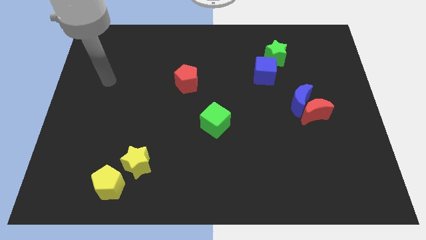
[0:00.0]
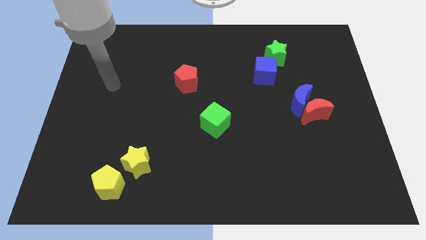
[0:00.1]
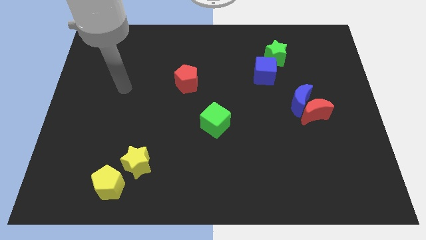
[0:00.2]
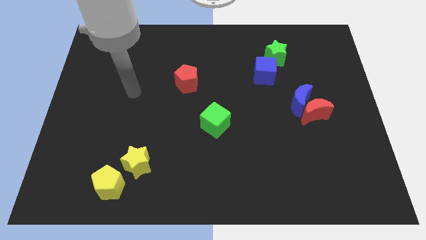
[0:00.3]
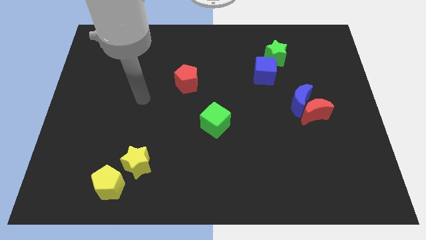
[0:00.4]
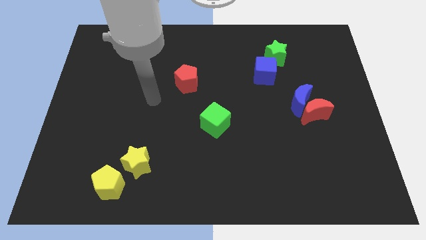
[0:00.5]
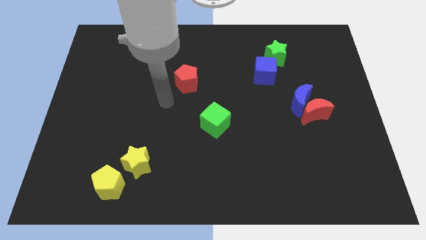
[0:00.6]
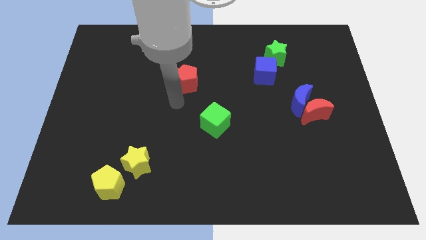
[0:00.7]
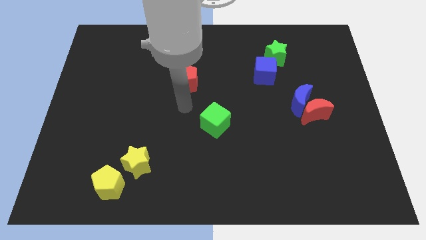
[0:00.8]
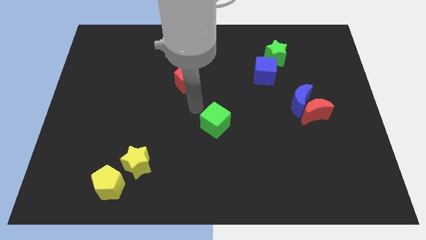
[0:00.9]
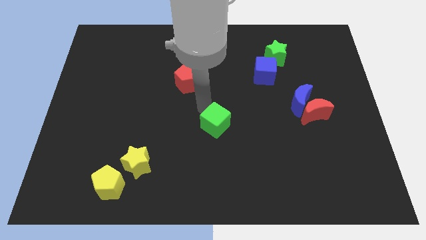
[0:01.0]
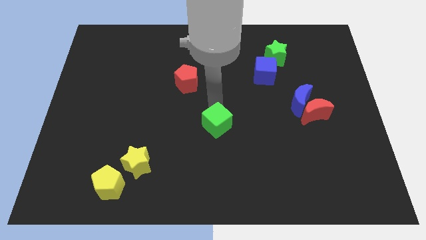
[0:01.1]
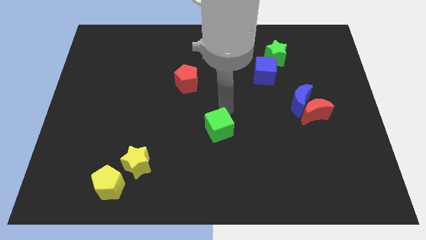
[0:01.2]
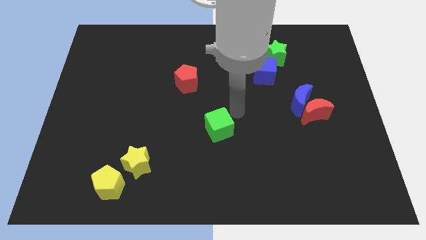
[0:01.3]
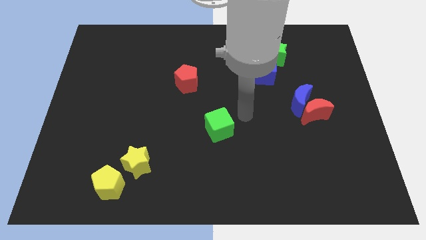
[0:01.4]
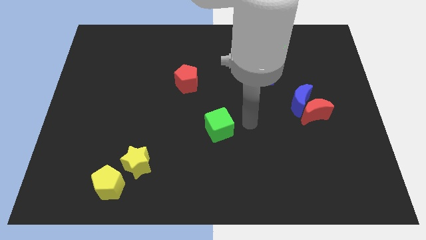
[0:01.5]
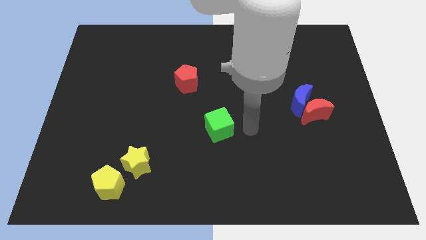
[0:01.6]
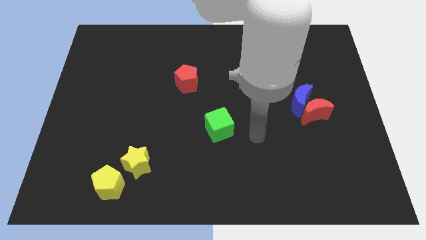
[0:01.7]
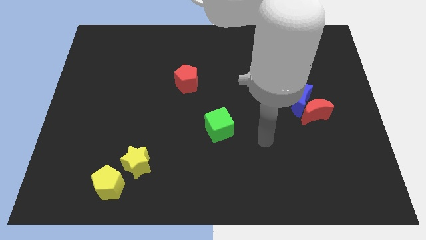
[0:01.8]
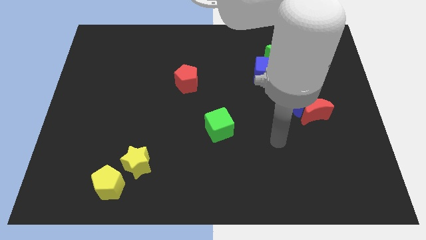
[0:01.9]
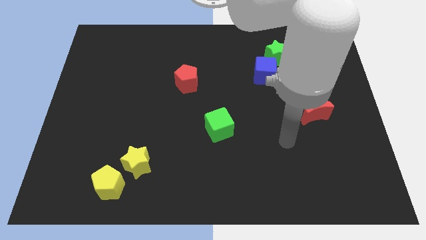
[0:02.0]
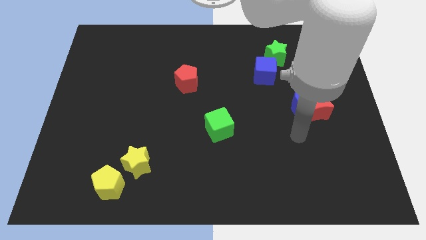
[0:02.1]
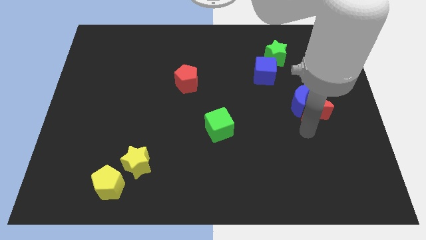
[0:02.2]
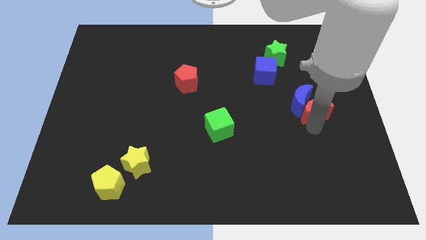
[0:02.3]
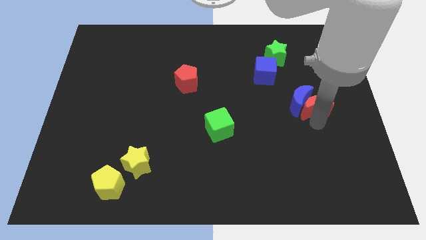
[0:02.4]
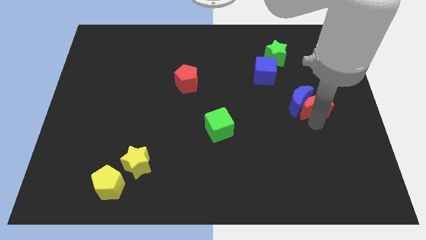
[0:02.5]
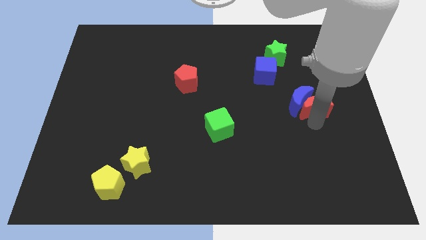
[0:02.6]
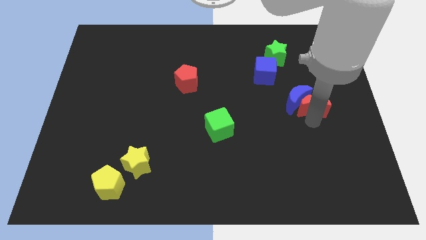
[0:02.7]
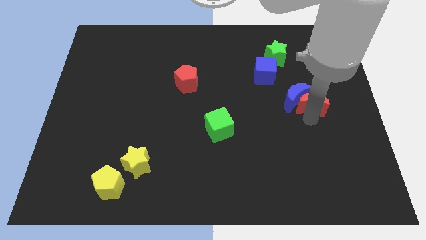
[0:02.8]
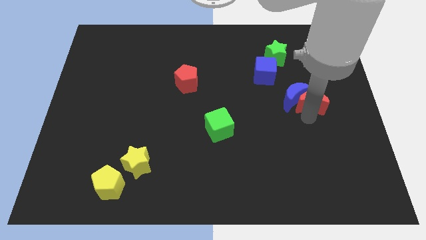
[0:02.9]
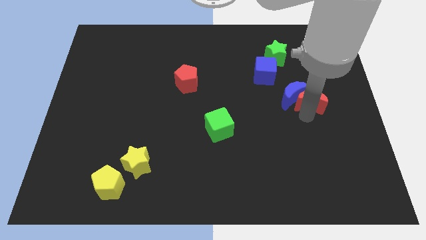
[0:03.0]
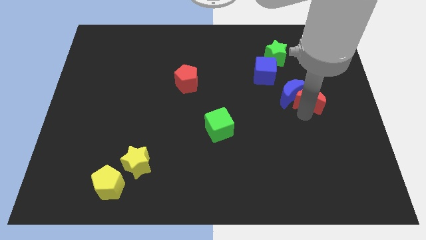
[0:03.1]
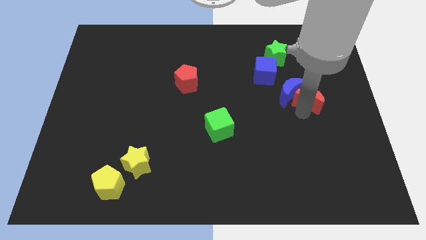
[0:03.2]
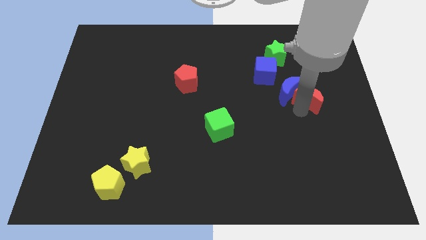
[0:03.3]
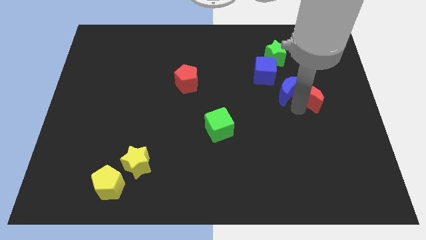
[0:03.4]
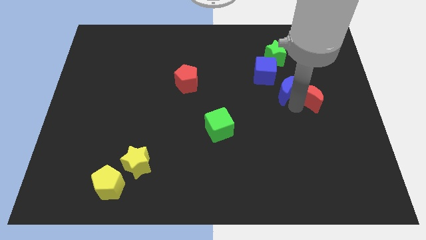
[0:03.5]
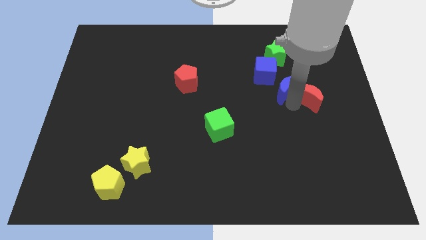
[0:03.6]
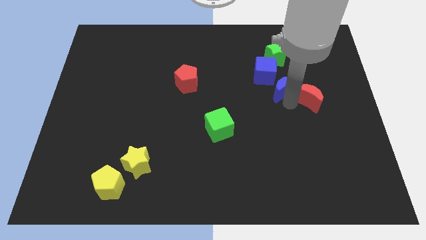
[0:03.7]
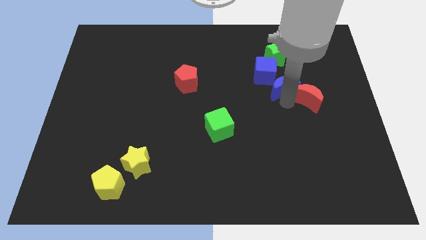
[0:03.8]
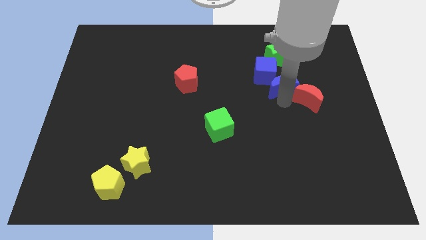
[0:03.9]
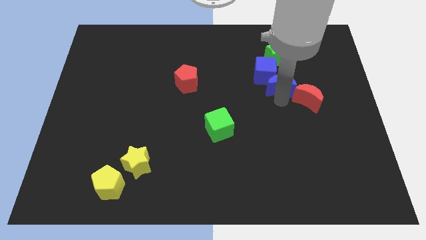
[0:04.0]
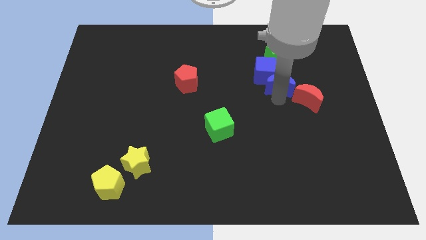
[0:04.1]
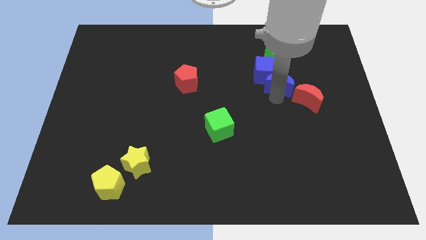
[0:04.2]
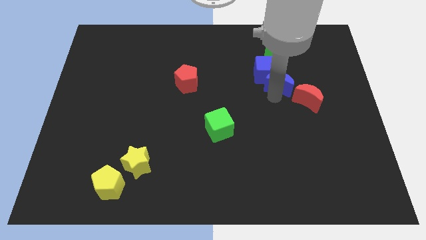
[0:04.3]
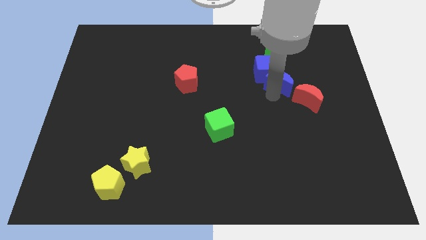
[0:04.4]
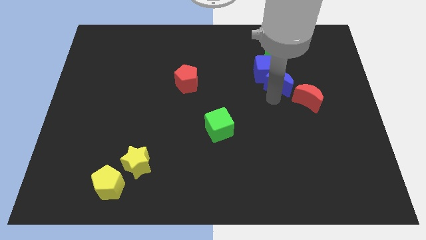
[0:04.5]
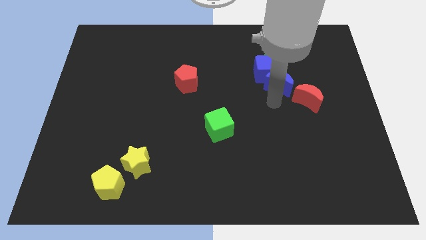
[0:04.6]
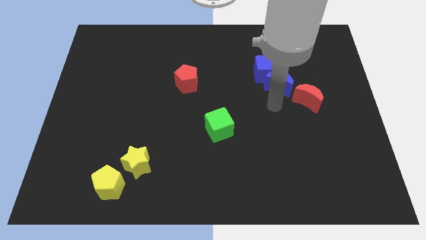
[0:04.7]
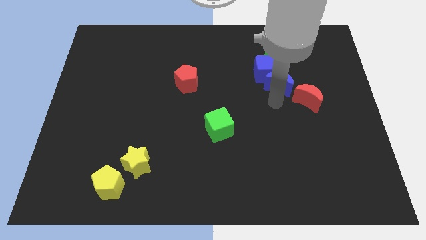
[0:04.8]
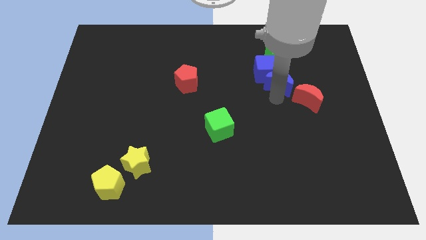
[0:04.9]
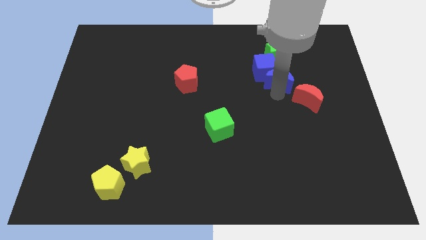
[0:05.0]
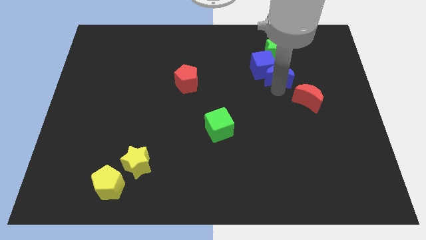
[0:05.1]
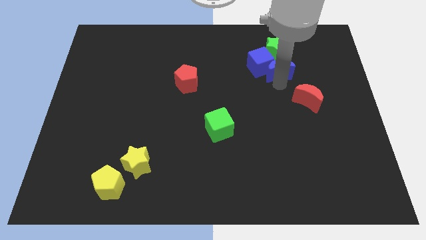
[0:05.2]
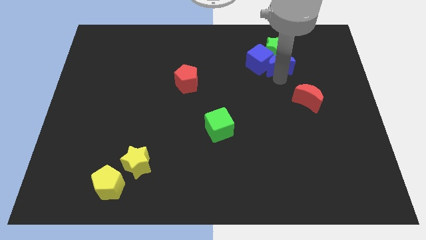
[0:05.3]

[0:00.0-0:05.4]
move the blue moon towards the green star

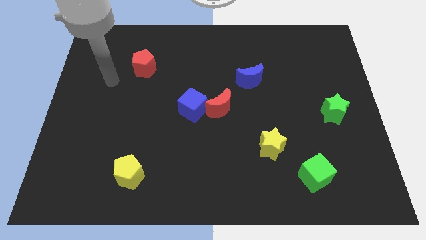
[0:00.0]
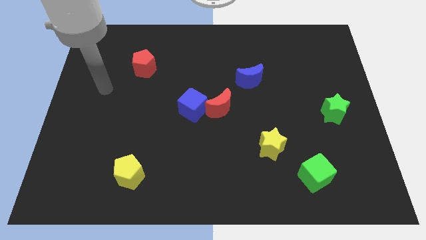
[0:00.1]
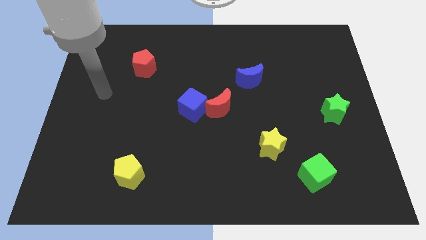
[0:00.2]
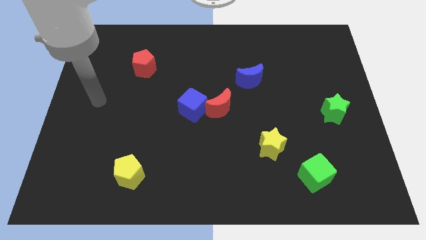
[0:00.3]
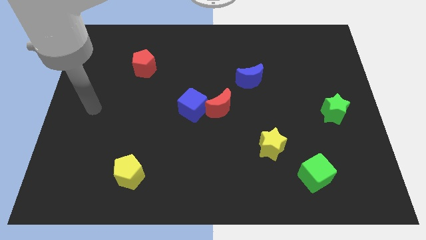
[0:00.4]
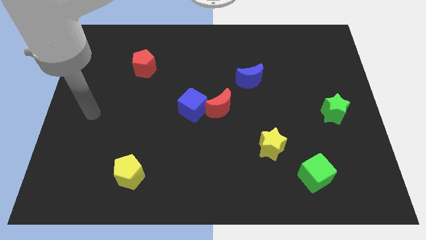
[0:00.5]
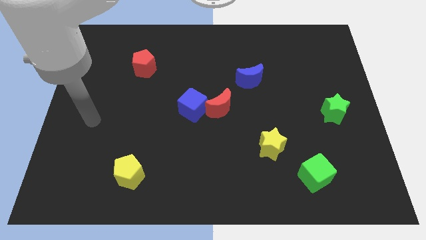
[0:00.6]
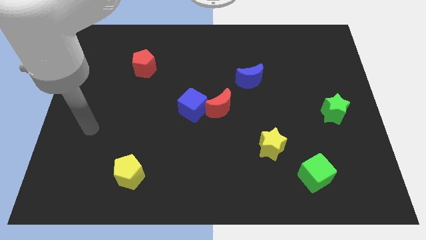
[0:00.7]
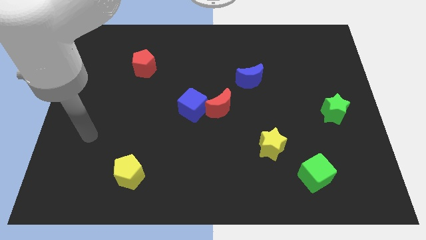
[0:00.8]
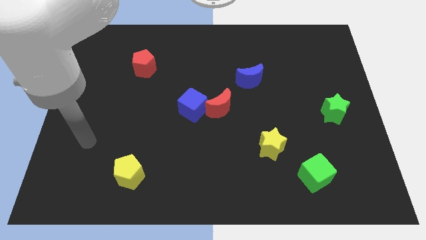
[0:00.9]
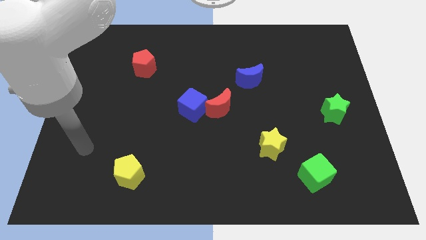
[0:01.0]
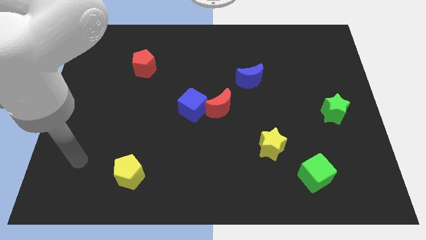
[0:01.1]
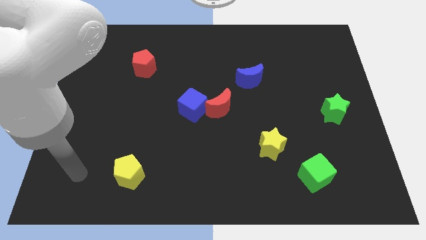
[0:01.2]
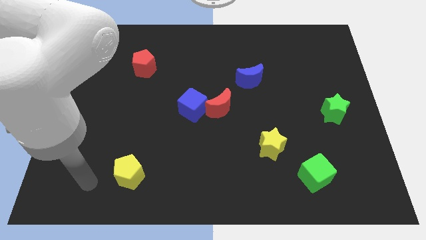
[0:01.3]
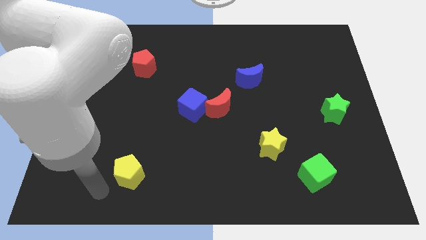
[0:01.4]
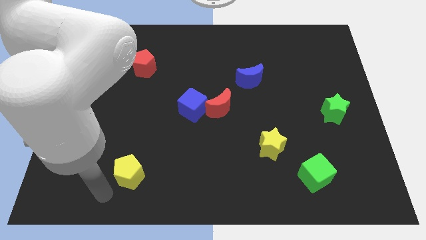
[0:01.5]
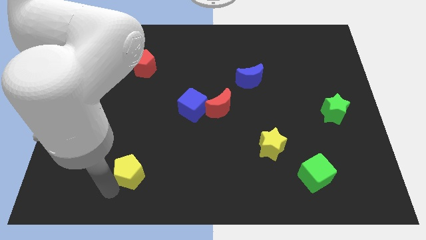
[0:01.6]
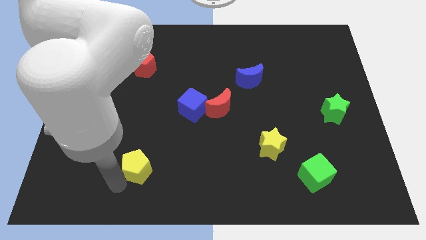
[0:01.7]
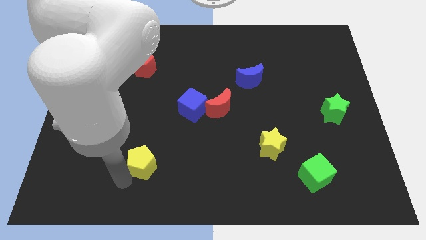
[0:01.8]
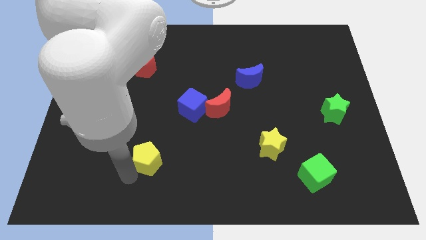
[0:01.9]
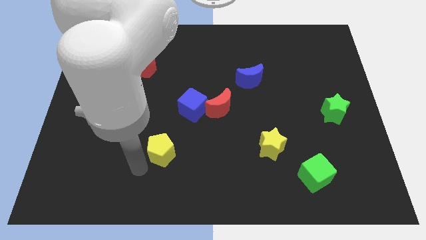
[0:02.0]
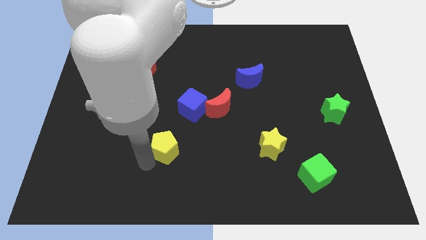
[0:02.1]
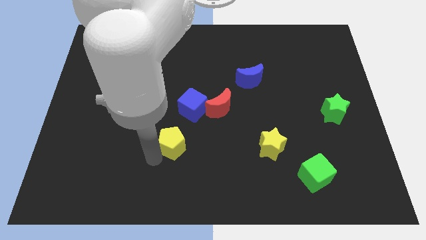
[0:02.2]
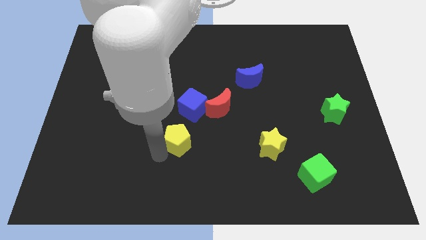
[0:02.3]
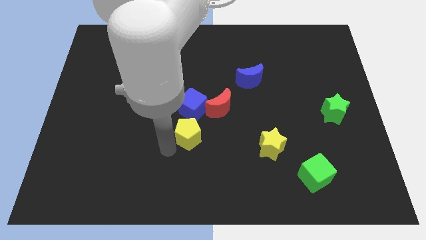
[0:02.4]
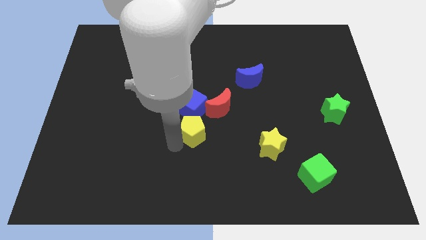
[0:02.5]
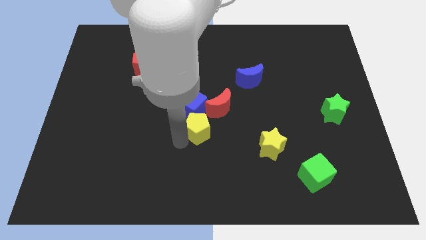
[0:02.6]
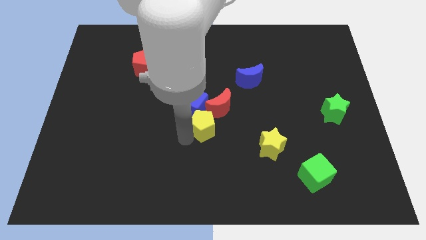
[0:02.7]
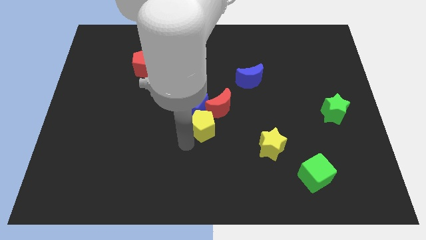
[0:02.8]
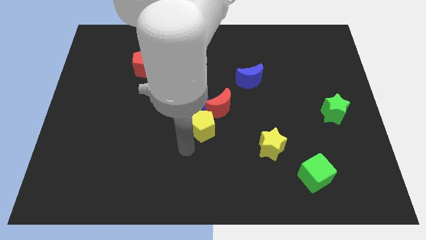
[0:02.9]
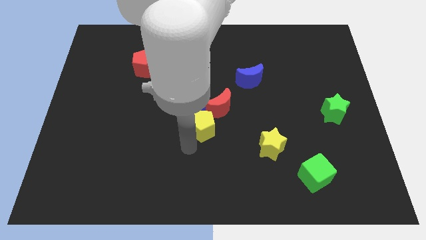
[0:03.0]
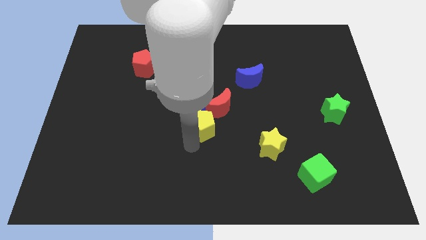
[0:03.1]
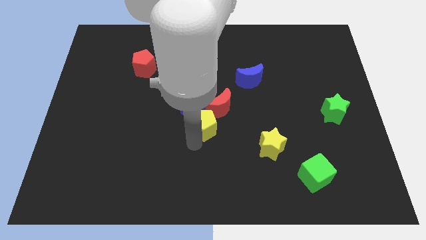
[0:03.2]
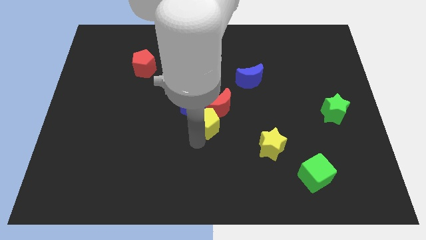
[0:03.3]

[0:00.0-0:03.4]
slide the yellow pentagon close to the red moon
